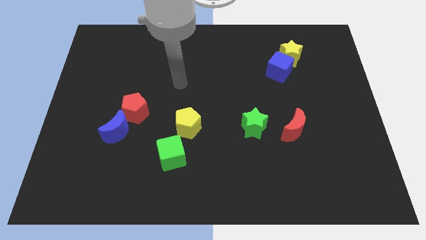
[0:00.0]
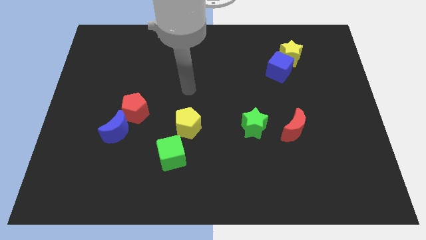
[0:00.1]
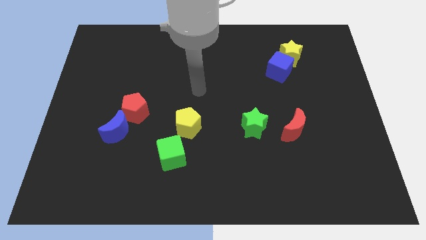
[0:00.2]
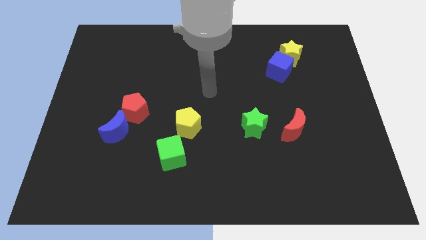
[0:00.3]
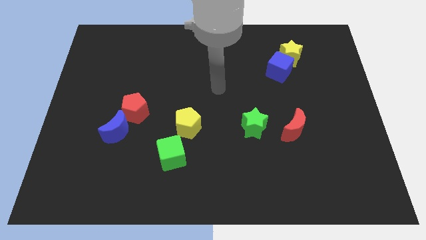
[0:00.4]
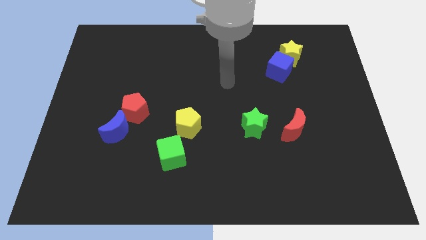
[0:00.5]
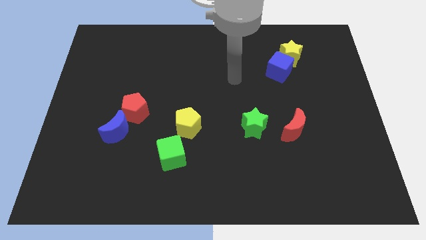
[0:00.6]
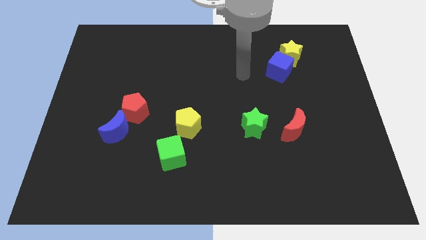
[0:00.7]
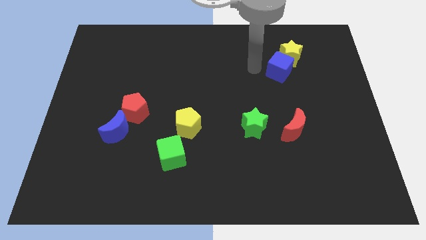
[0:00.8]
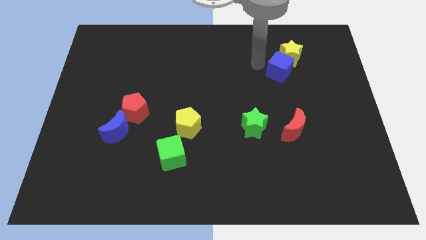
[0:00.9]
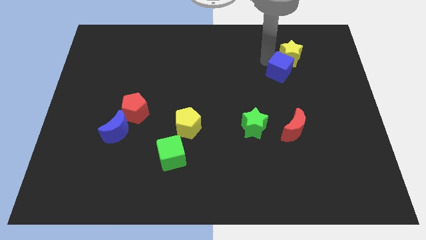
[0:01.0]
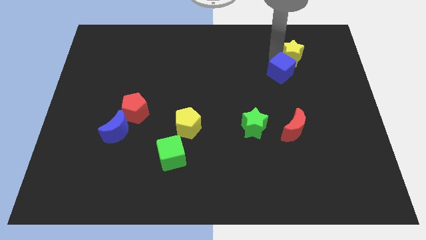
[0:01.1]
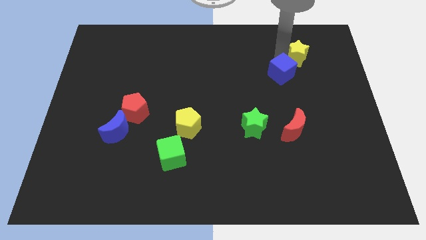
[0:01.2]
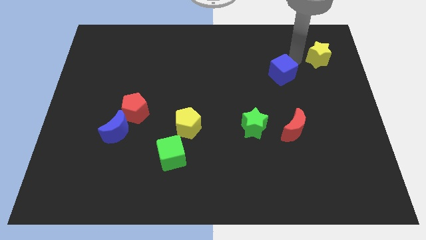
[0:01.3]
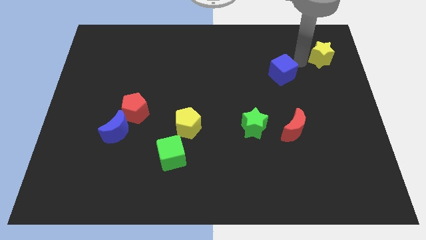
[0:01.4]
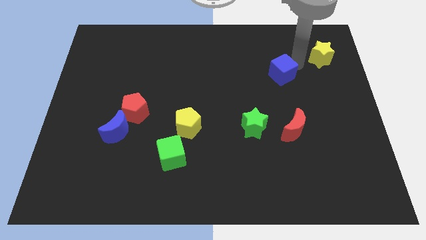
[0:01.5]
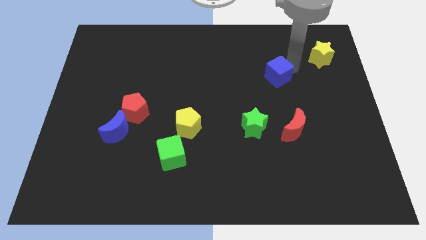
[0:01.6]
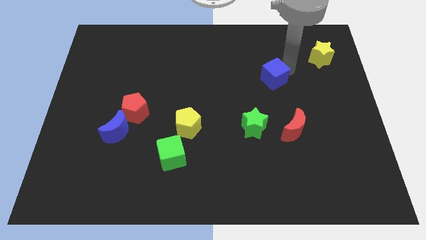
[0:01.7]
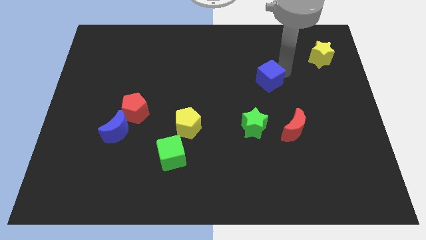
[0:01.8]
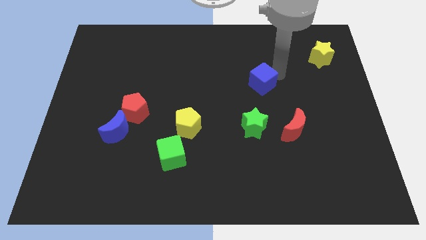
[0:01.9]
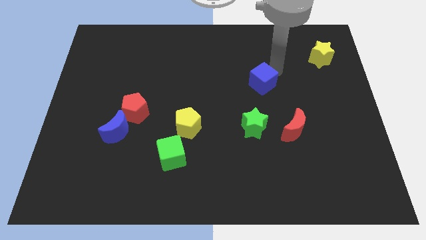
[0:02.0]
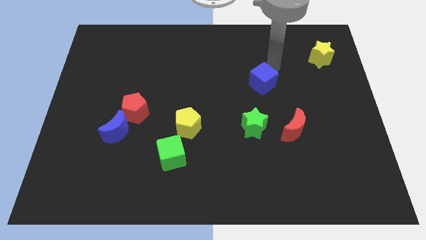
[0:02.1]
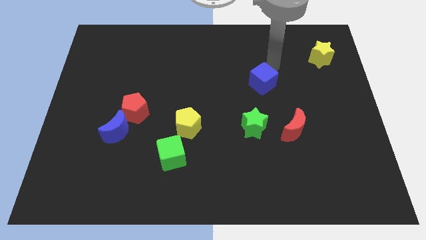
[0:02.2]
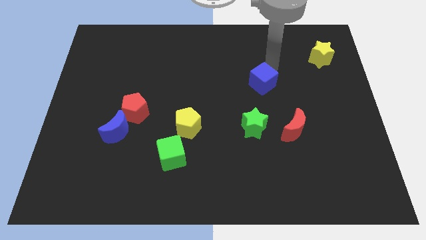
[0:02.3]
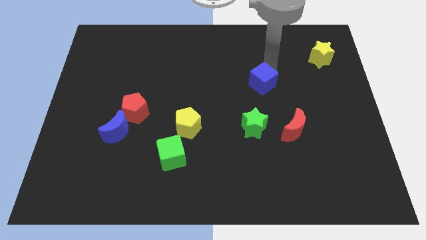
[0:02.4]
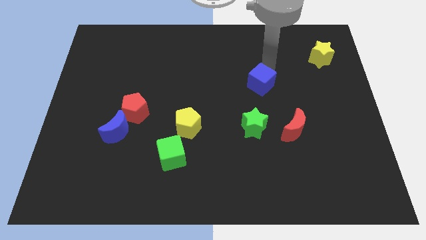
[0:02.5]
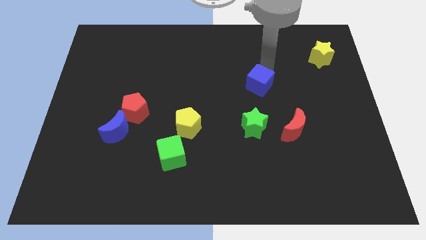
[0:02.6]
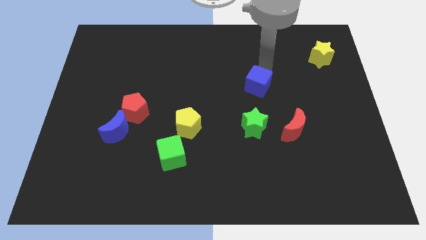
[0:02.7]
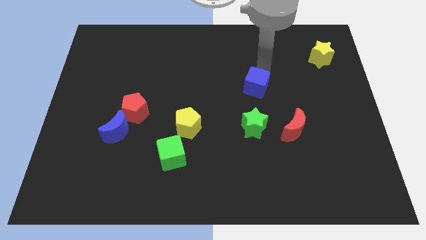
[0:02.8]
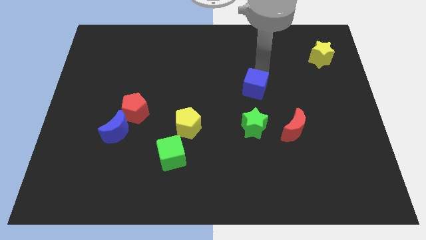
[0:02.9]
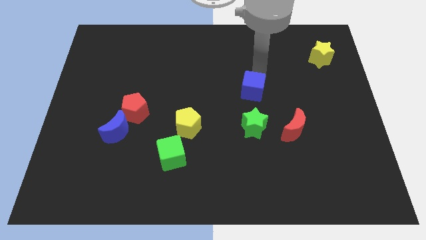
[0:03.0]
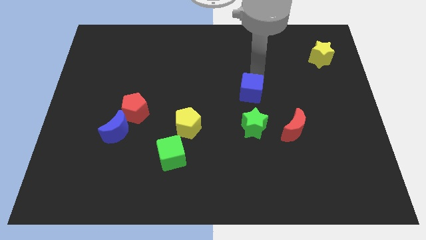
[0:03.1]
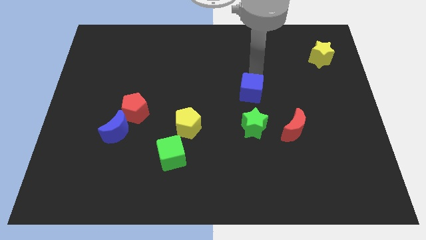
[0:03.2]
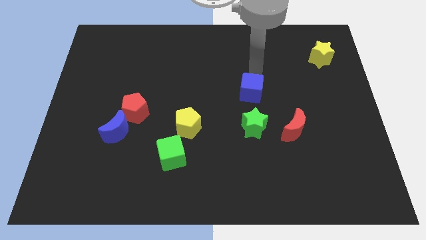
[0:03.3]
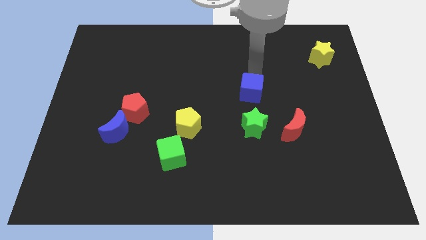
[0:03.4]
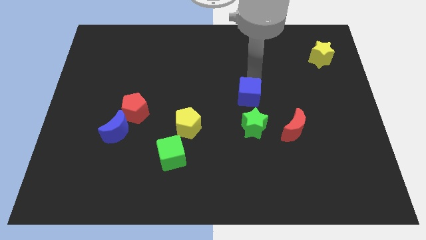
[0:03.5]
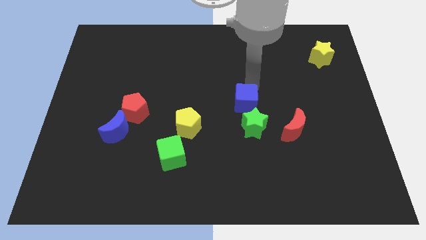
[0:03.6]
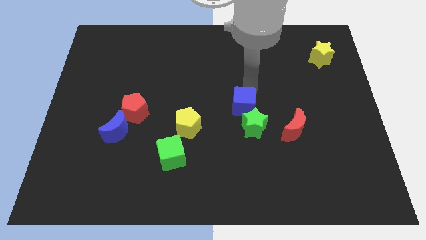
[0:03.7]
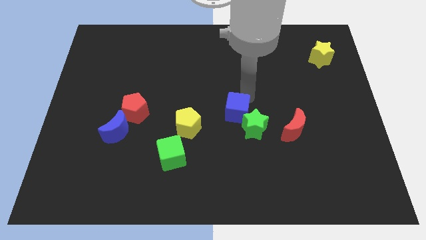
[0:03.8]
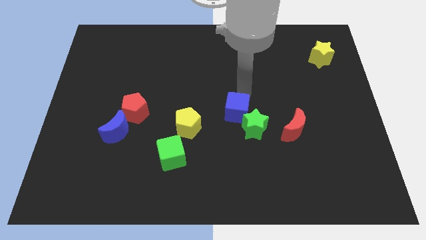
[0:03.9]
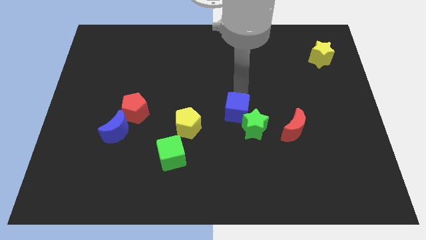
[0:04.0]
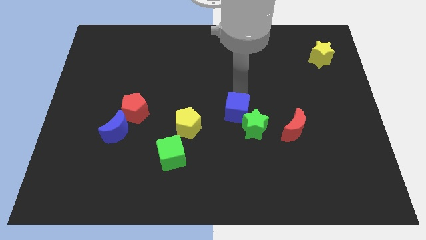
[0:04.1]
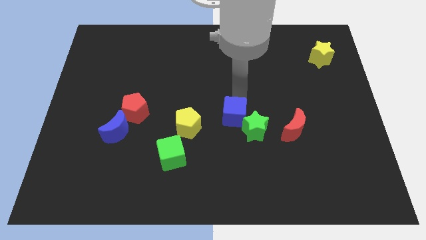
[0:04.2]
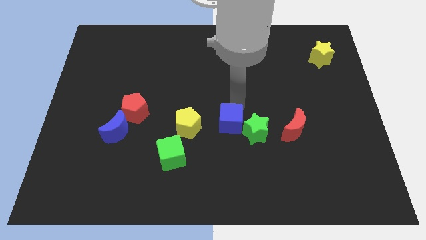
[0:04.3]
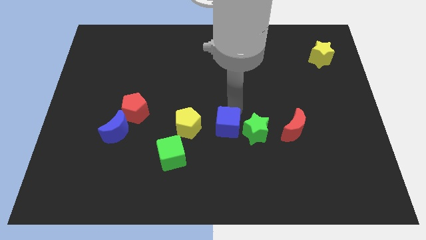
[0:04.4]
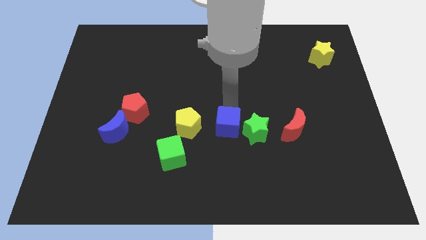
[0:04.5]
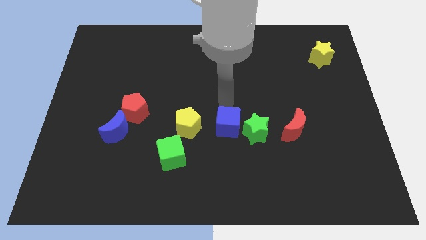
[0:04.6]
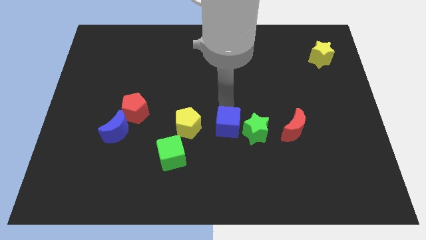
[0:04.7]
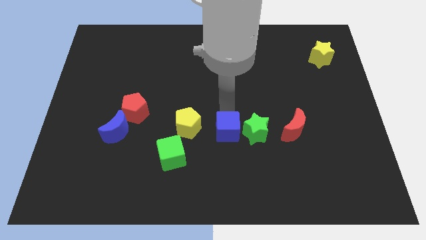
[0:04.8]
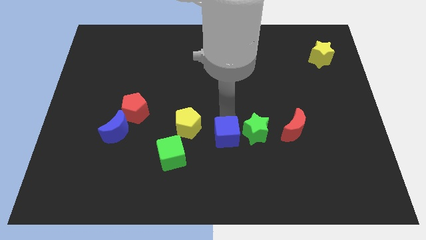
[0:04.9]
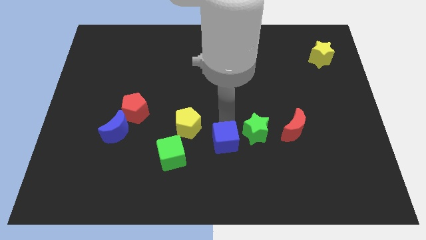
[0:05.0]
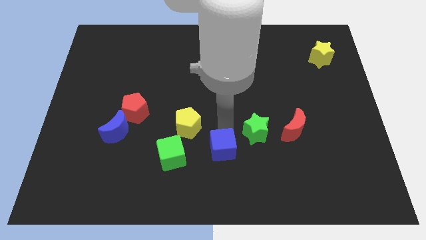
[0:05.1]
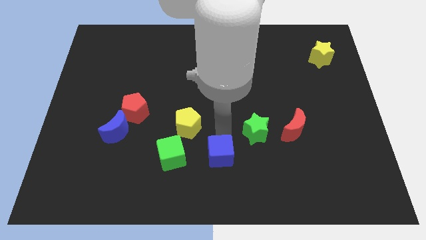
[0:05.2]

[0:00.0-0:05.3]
put the blue cube to the bottom side
